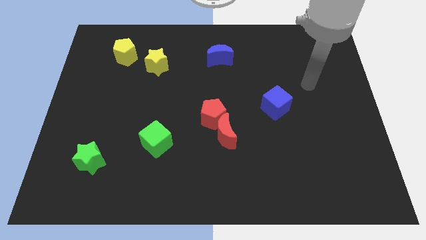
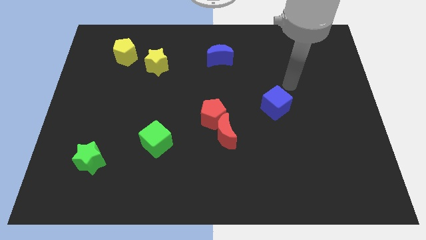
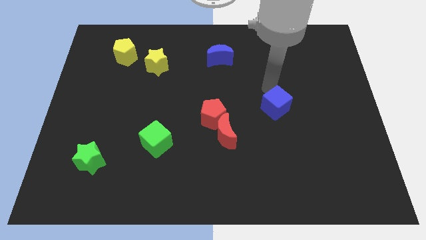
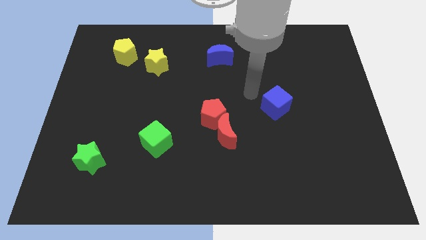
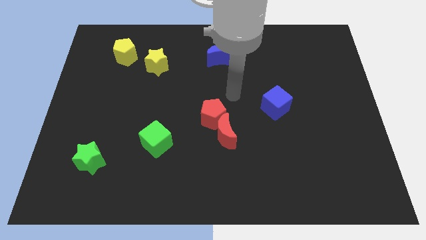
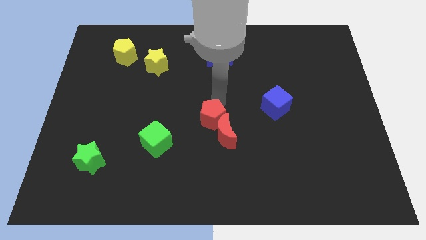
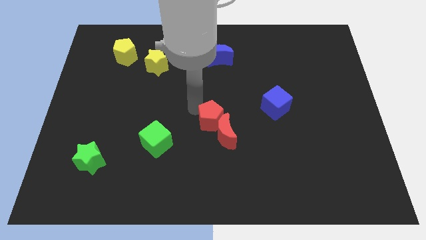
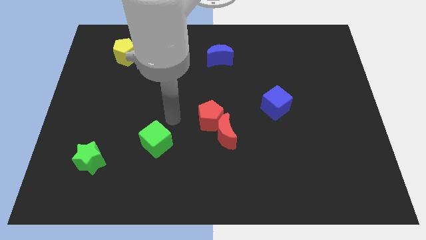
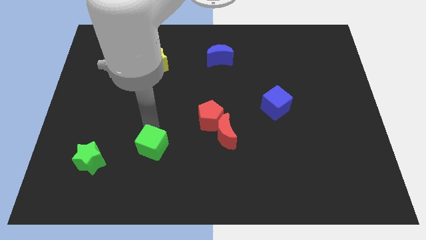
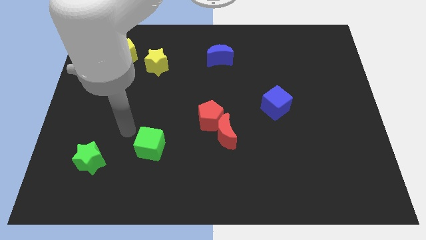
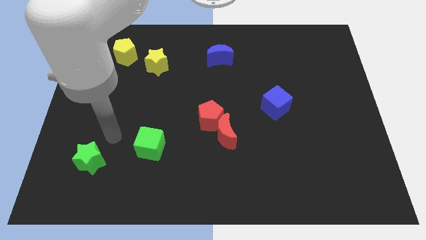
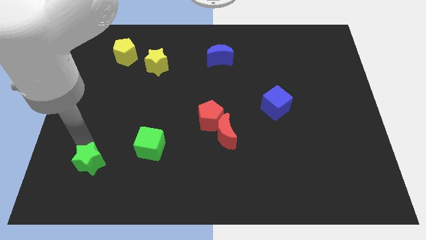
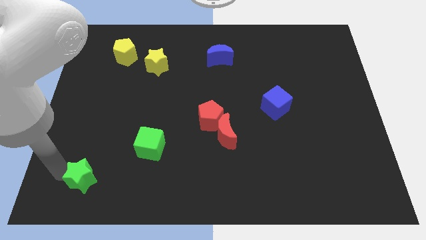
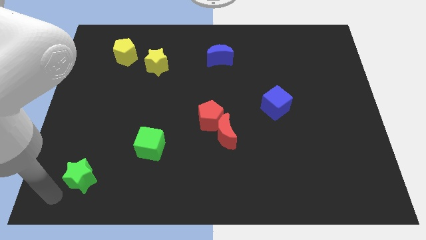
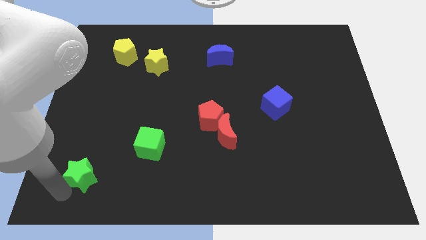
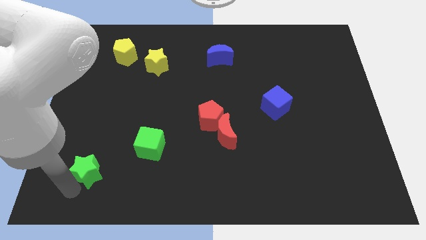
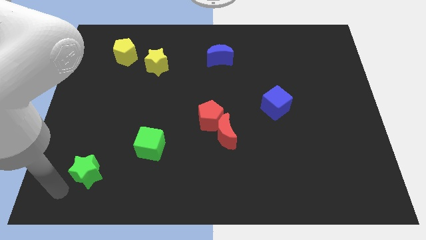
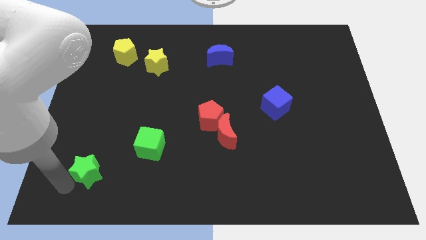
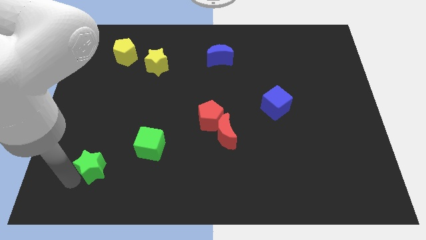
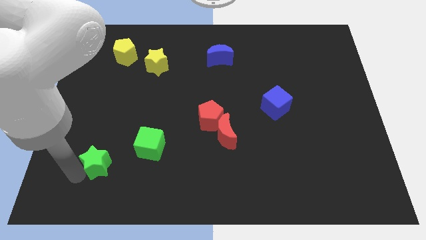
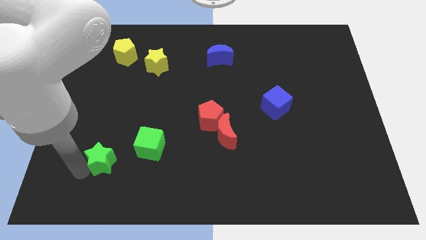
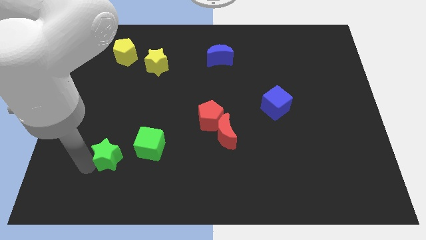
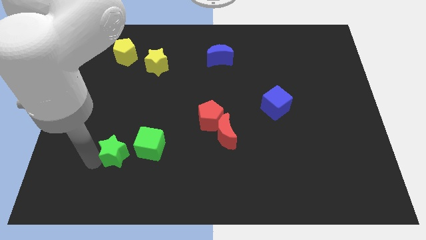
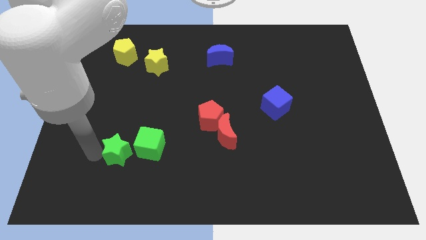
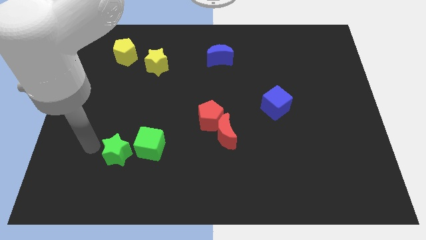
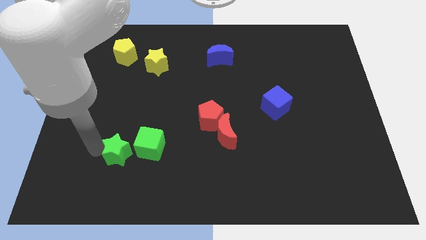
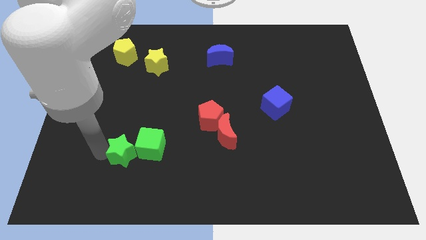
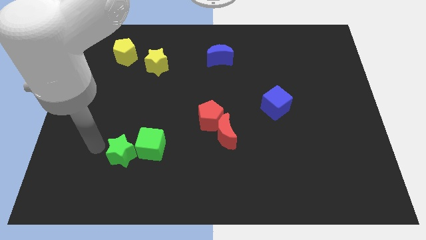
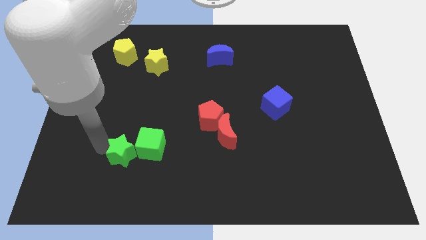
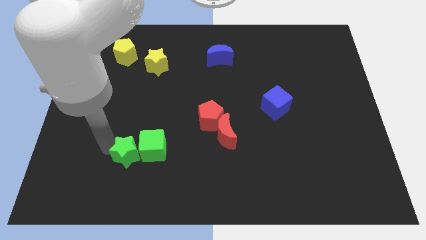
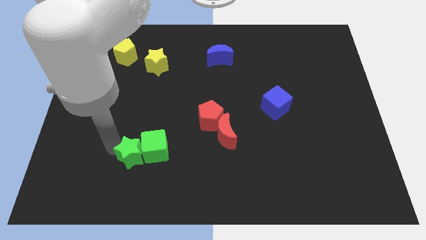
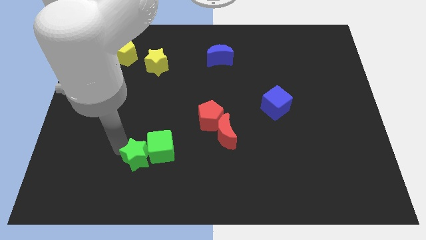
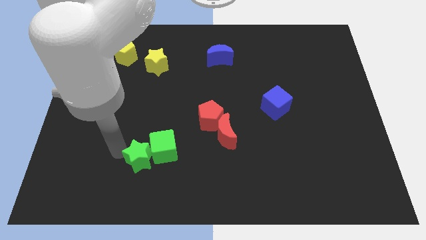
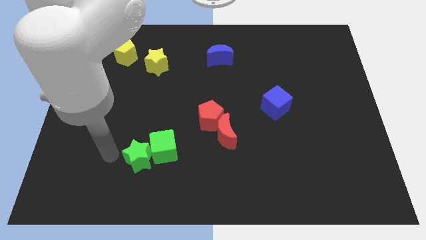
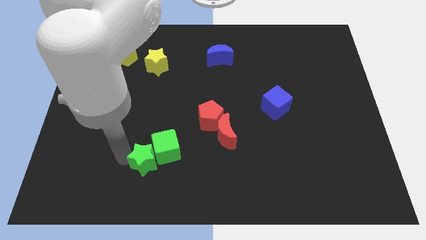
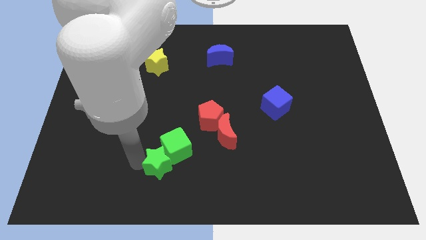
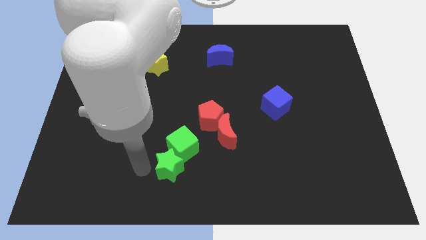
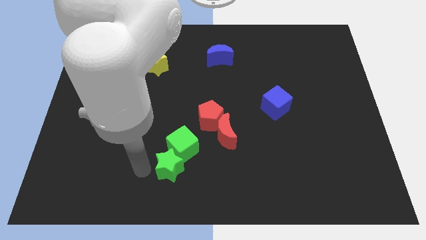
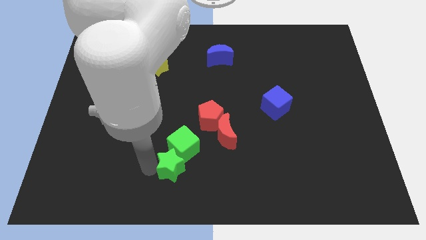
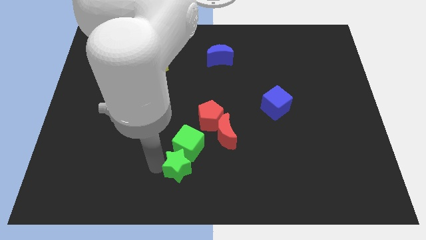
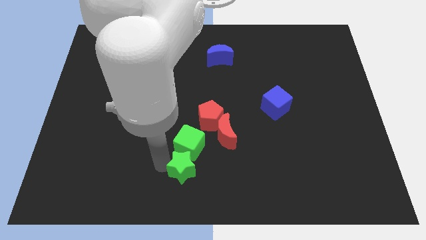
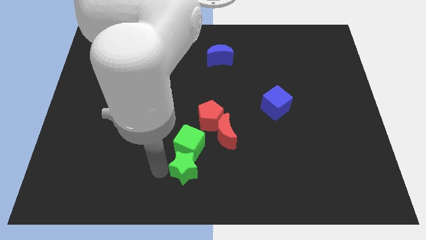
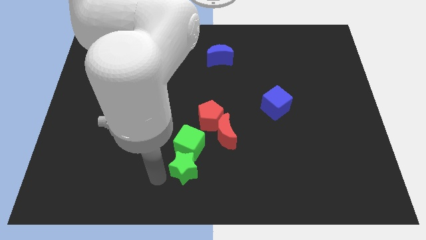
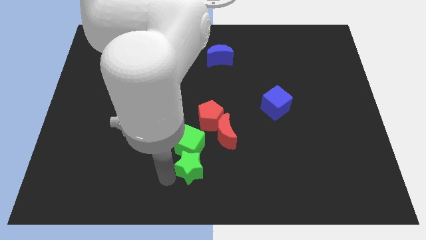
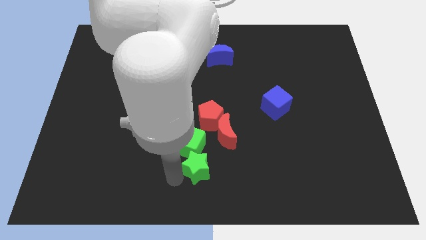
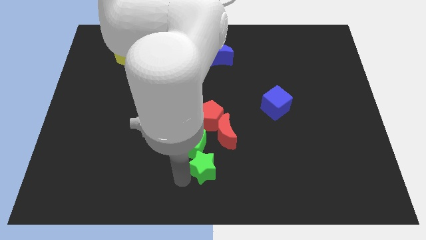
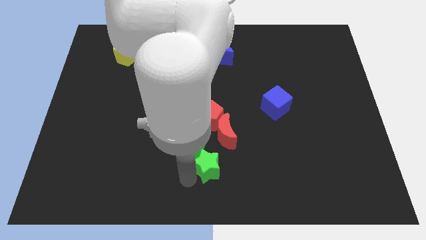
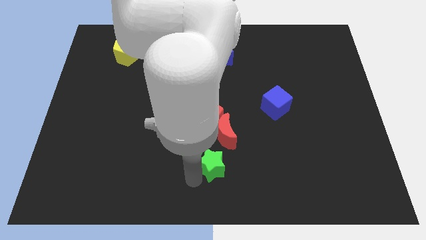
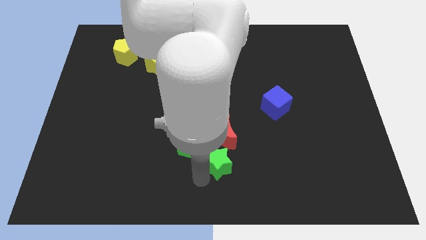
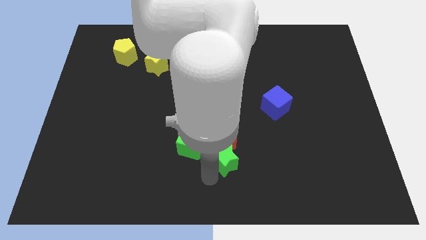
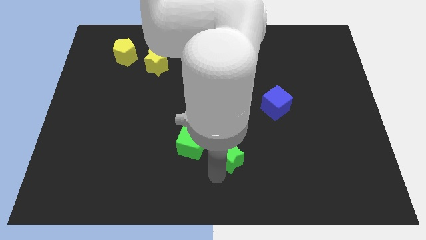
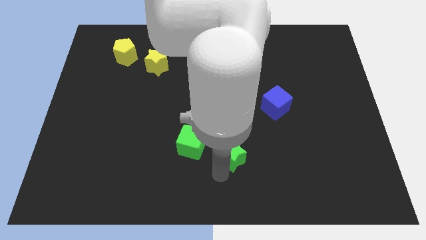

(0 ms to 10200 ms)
put the green star to the bottom right side of the red pentagon

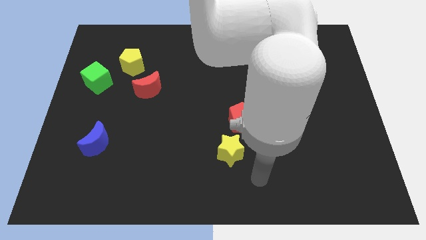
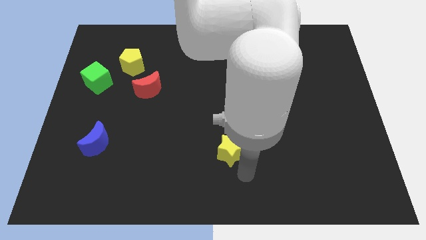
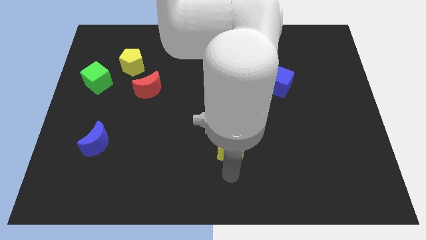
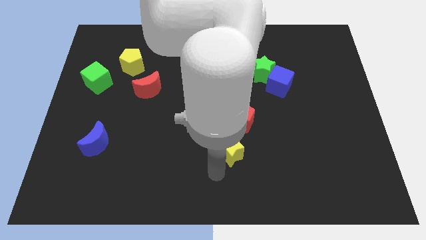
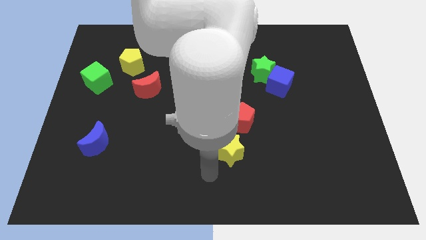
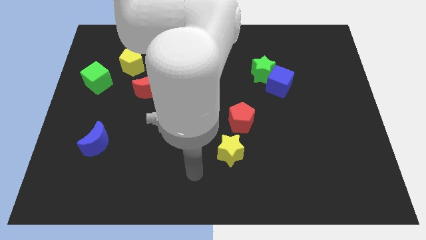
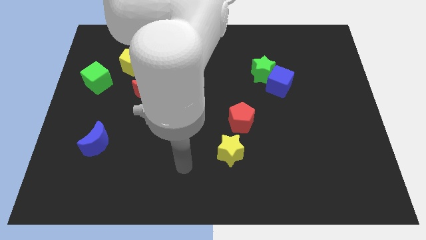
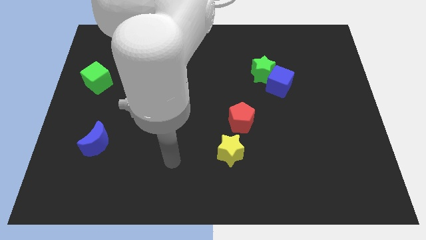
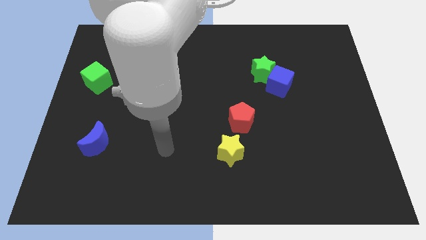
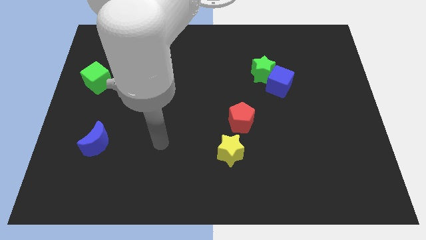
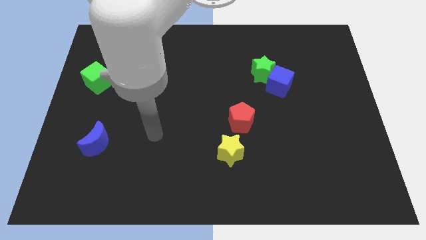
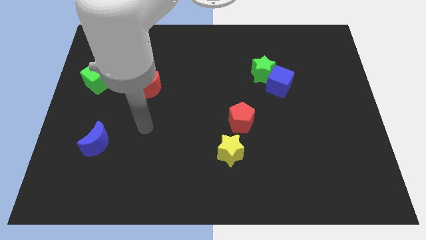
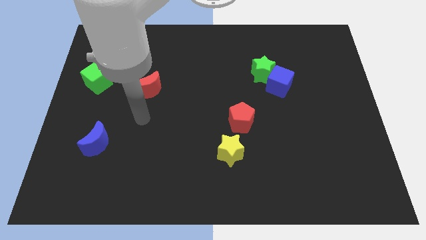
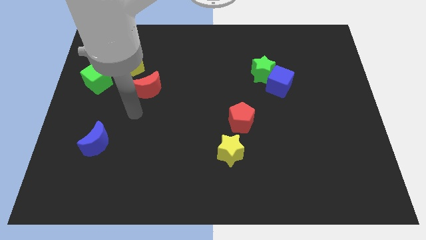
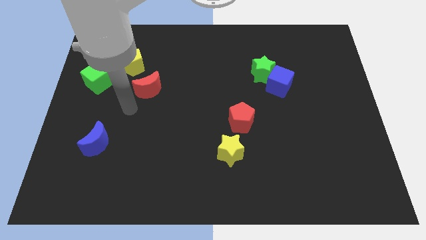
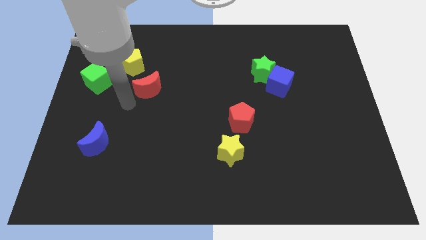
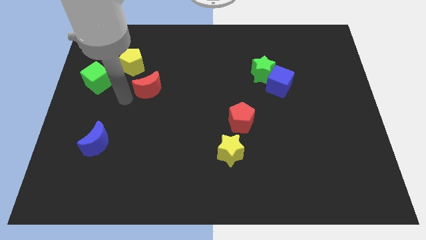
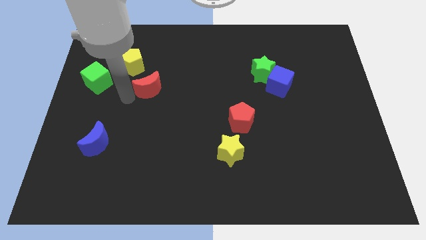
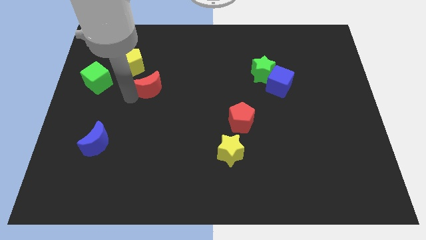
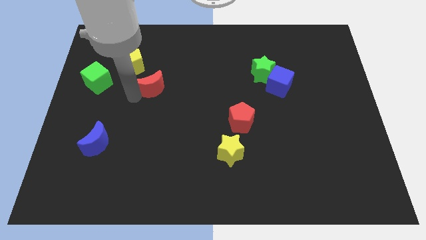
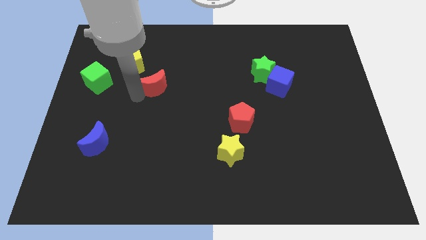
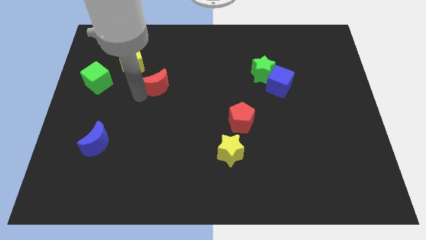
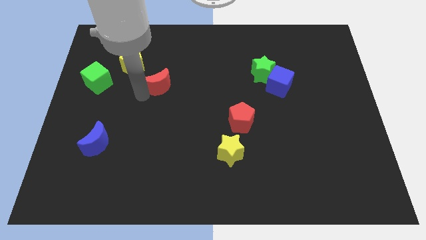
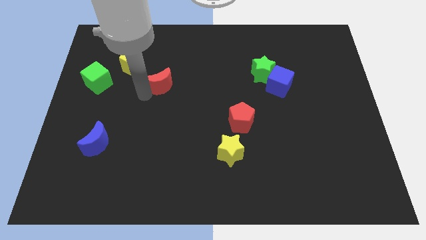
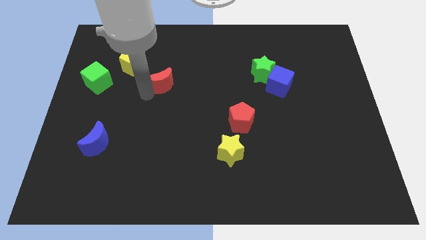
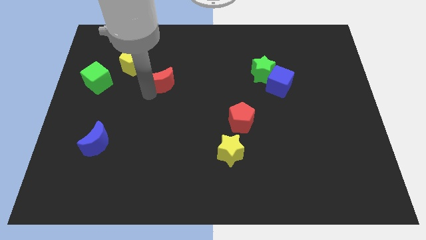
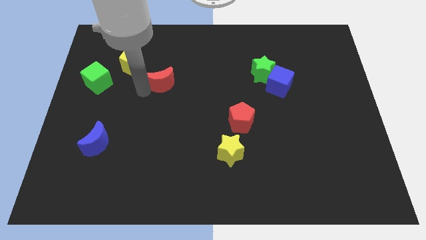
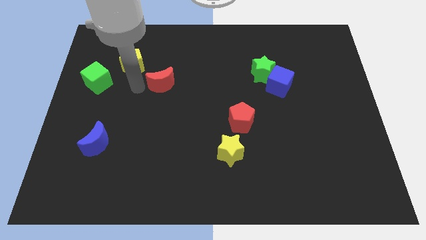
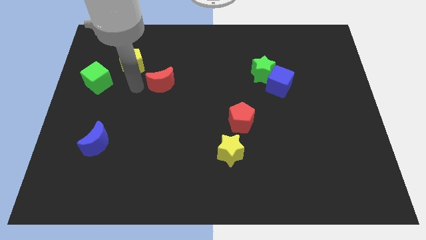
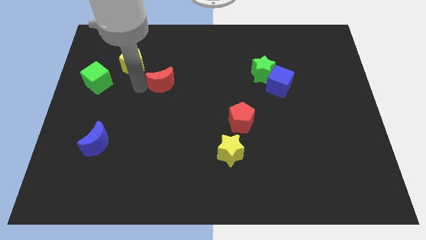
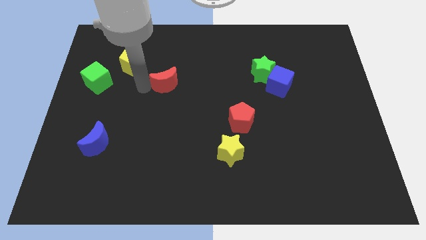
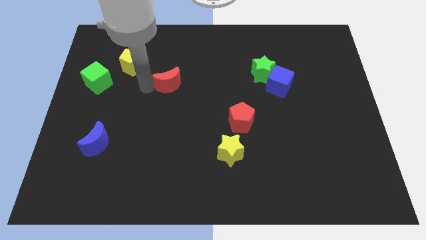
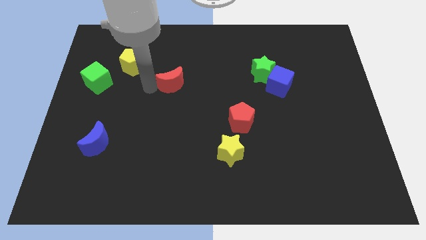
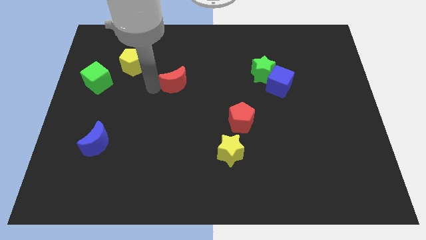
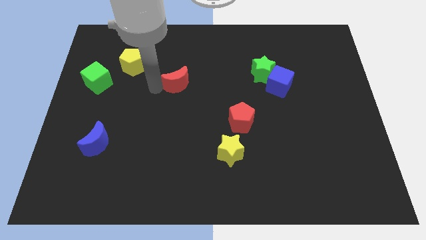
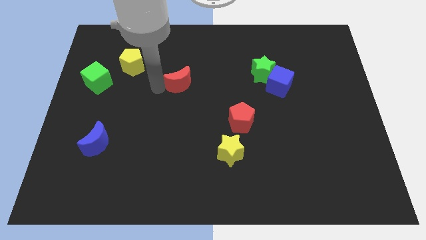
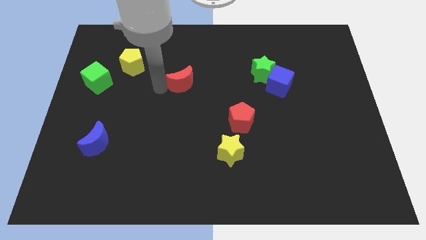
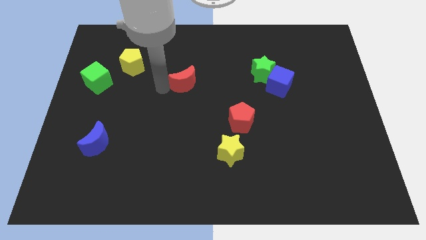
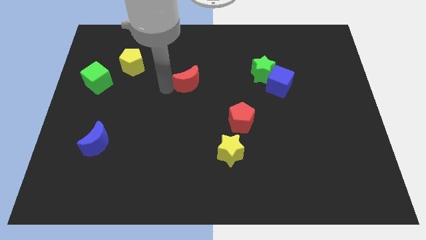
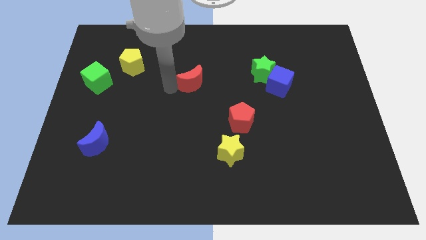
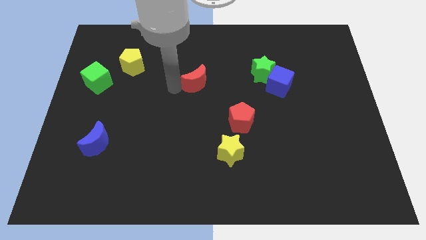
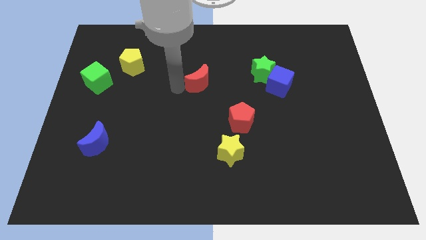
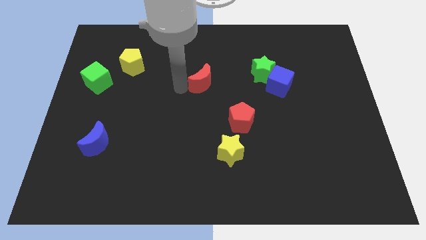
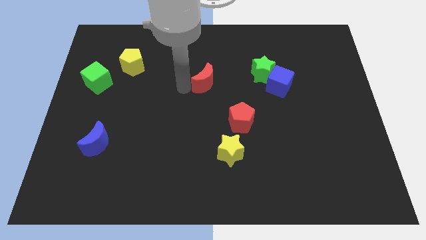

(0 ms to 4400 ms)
move the red moon just left of the green star
